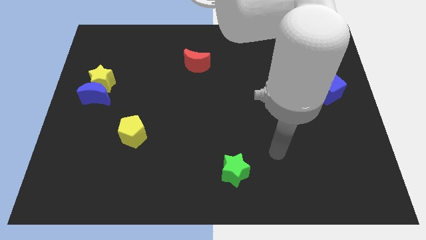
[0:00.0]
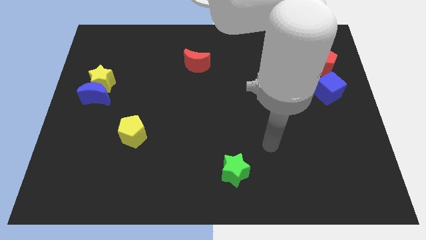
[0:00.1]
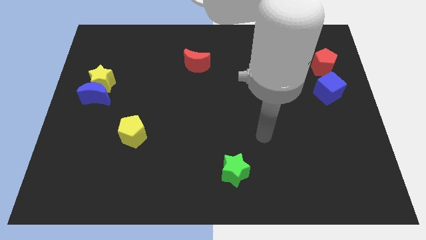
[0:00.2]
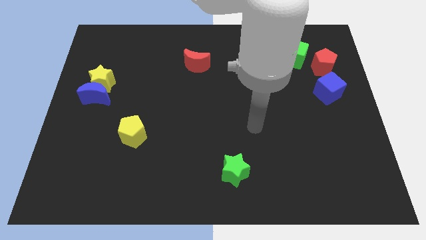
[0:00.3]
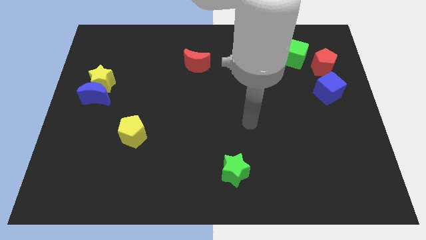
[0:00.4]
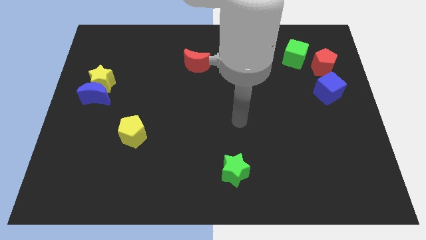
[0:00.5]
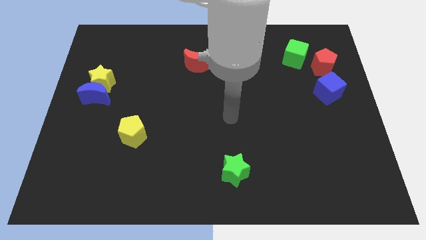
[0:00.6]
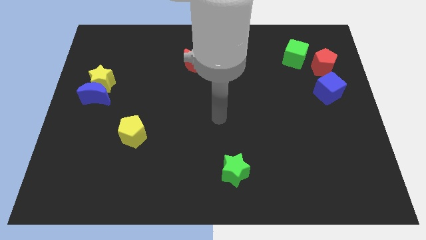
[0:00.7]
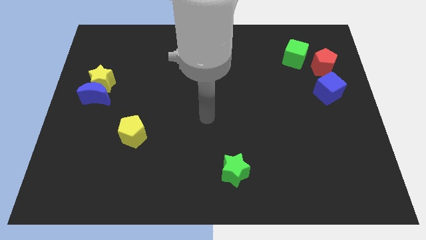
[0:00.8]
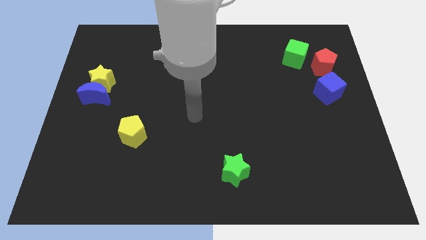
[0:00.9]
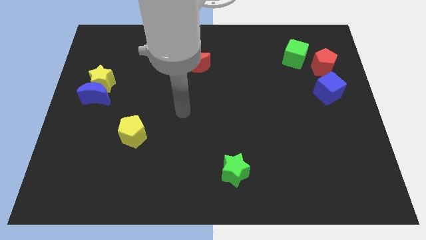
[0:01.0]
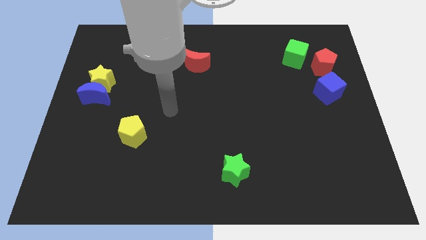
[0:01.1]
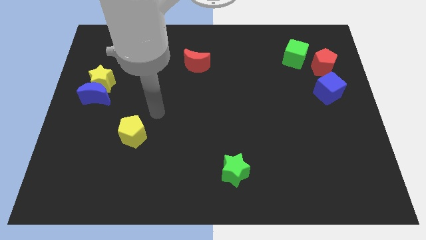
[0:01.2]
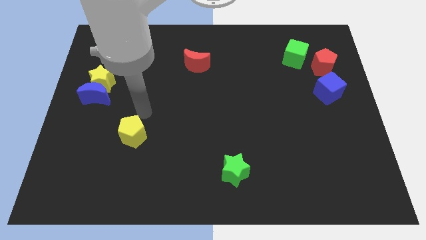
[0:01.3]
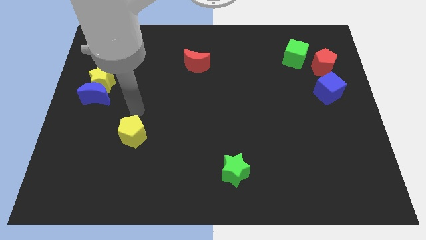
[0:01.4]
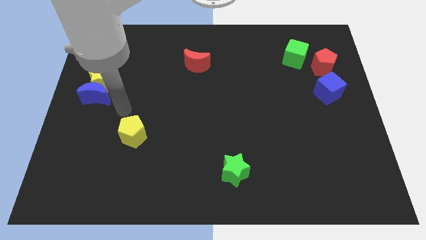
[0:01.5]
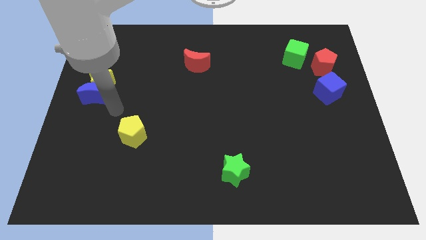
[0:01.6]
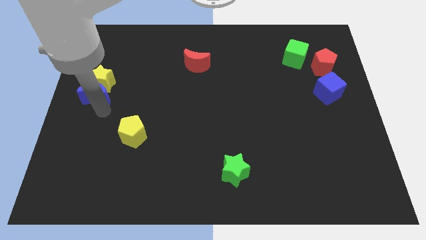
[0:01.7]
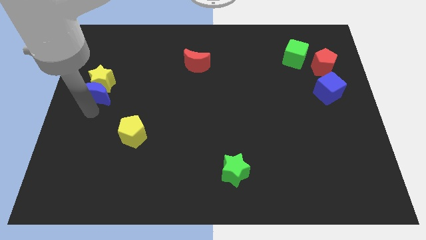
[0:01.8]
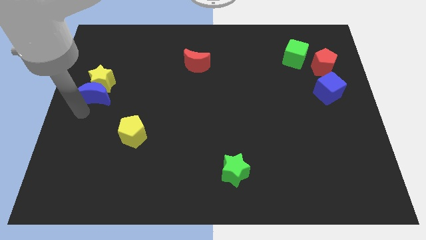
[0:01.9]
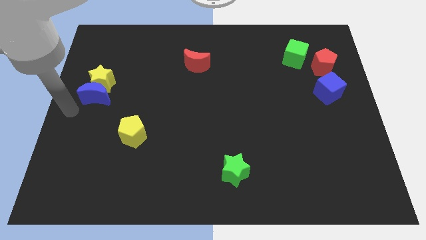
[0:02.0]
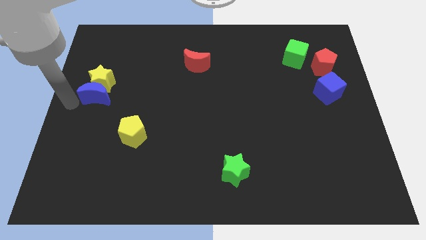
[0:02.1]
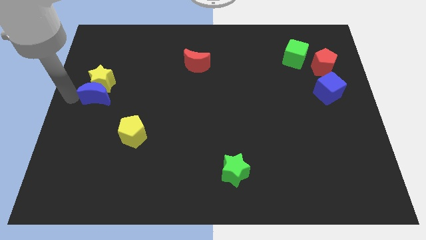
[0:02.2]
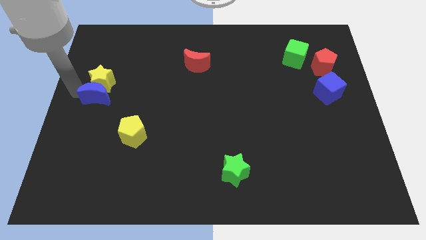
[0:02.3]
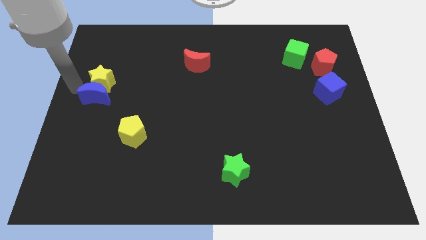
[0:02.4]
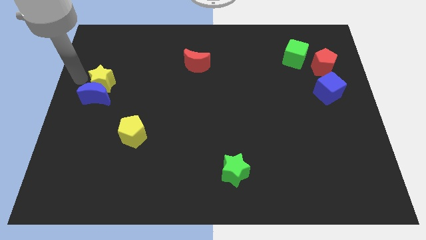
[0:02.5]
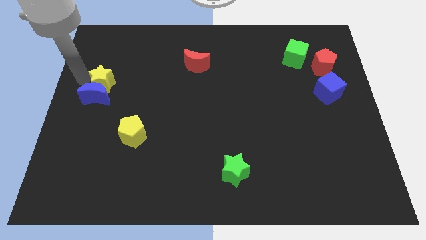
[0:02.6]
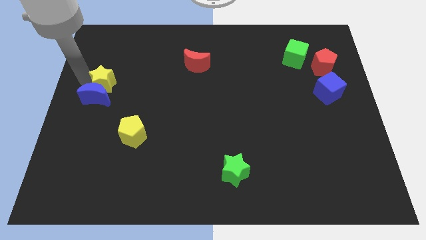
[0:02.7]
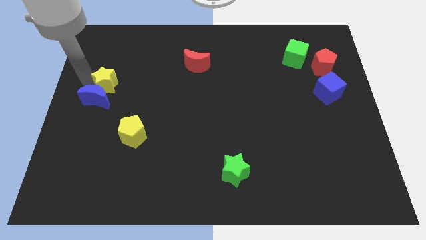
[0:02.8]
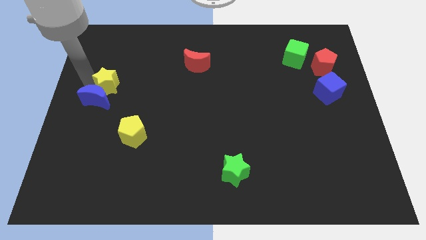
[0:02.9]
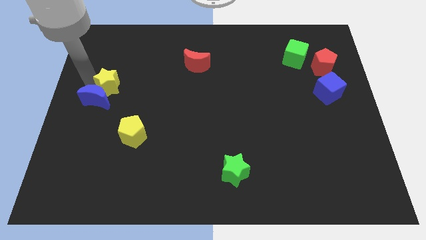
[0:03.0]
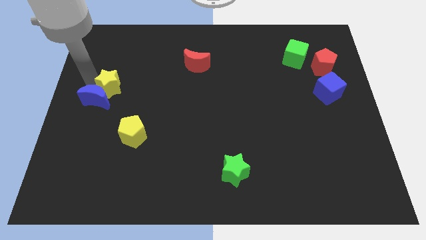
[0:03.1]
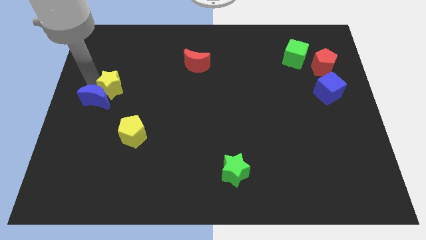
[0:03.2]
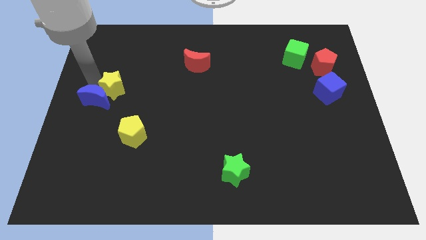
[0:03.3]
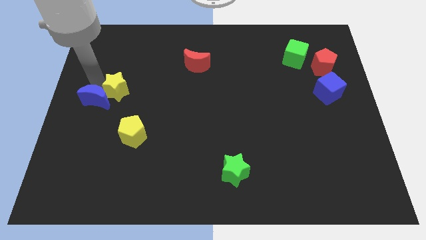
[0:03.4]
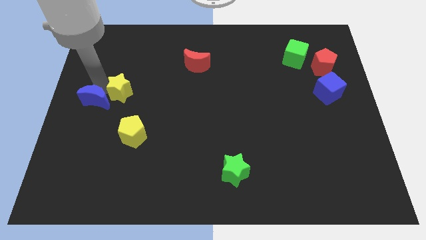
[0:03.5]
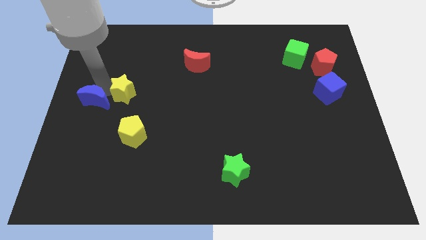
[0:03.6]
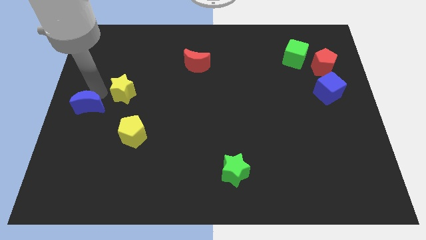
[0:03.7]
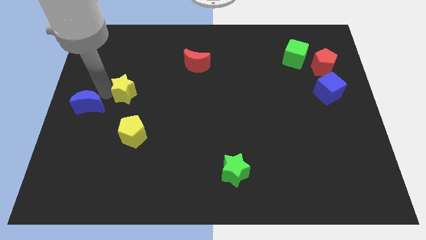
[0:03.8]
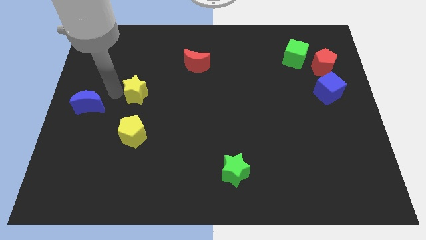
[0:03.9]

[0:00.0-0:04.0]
slightly push the yellow star to the right

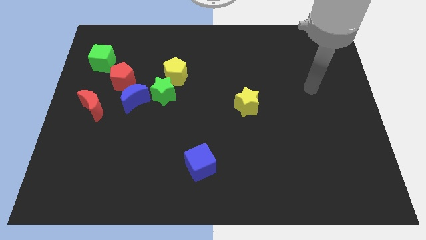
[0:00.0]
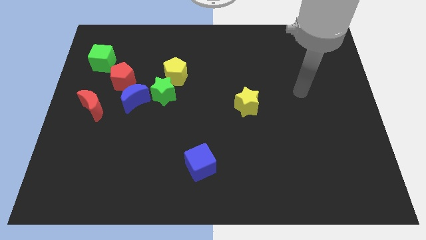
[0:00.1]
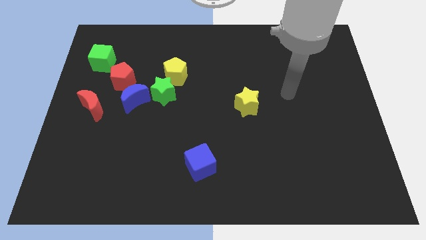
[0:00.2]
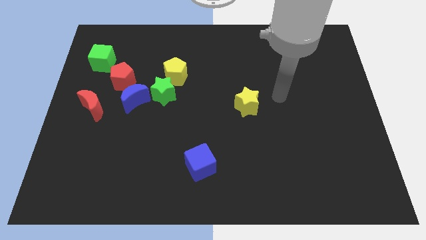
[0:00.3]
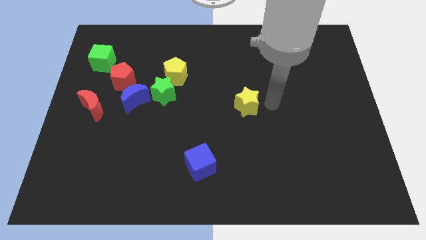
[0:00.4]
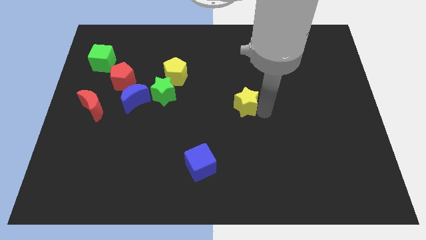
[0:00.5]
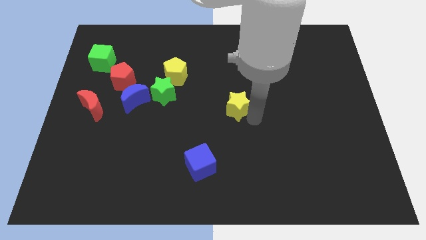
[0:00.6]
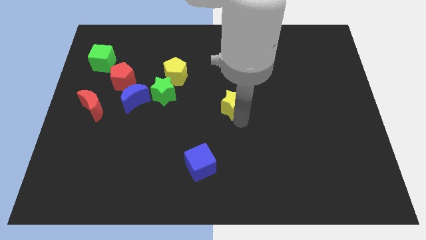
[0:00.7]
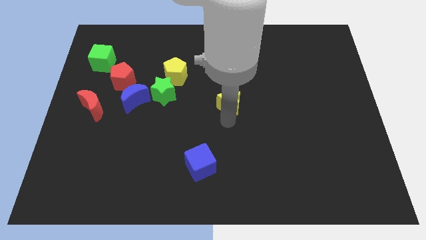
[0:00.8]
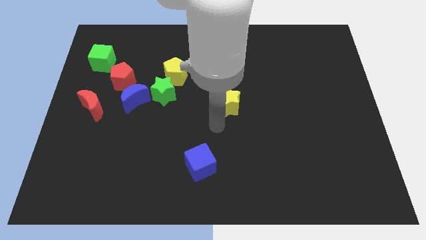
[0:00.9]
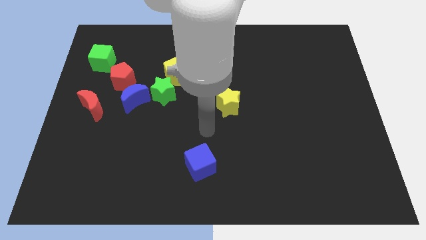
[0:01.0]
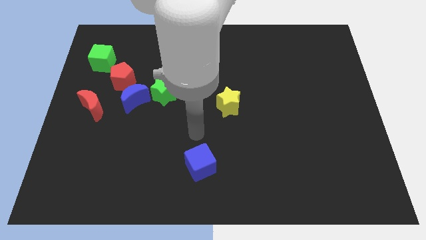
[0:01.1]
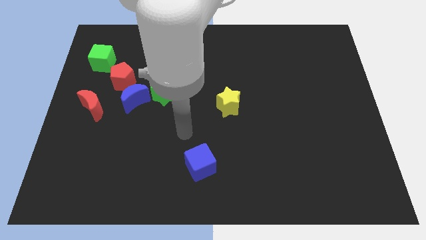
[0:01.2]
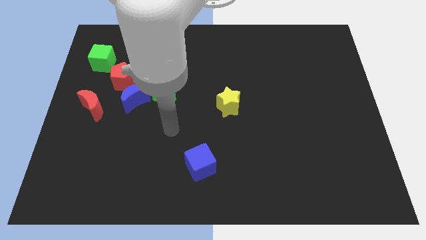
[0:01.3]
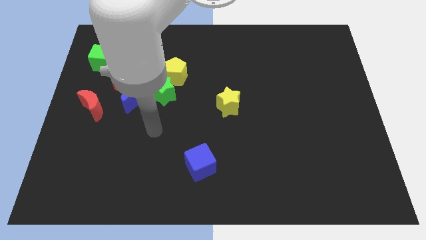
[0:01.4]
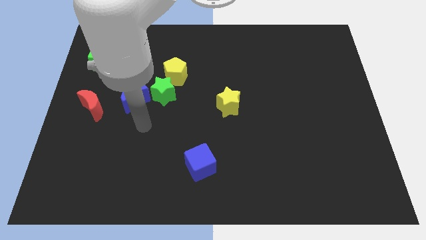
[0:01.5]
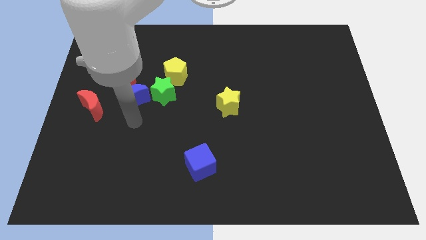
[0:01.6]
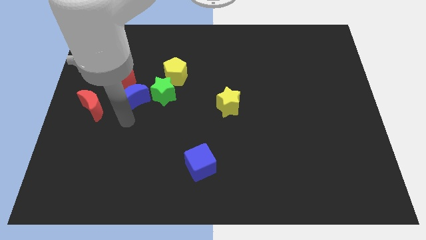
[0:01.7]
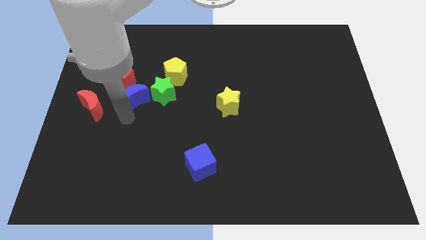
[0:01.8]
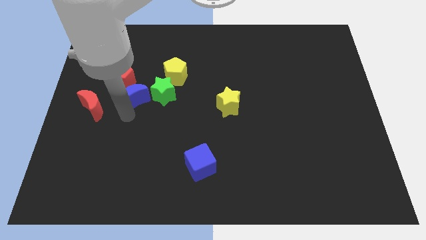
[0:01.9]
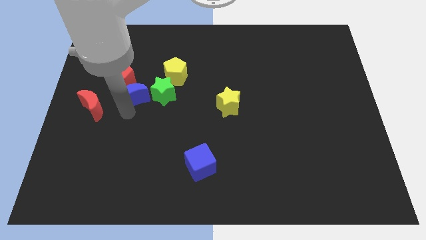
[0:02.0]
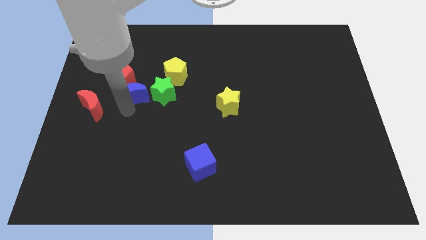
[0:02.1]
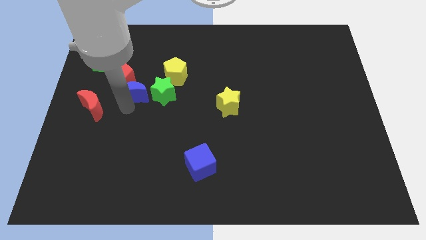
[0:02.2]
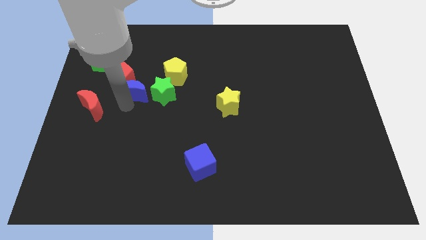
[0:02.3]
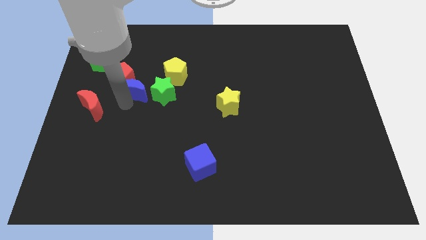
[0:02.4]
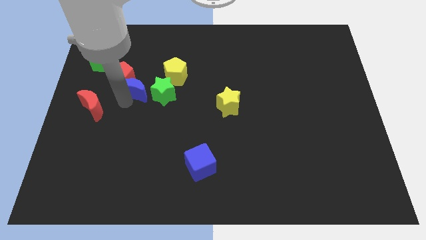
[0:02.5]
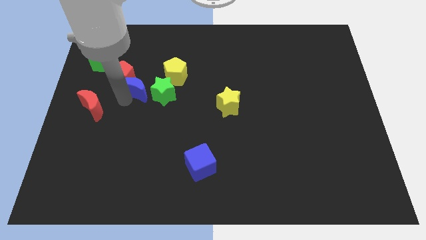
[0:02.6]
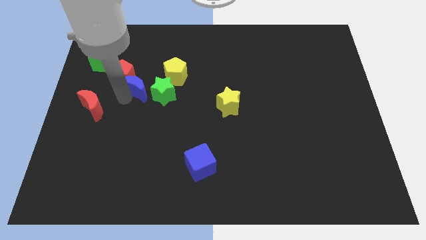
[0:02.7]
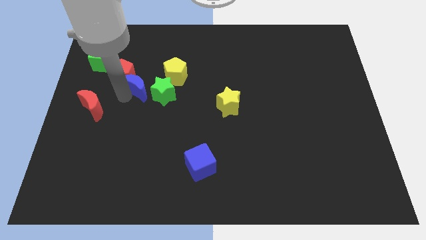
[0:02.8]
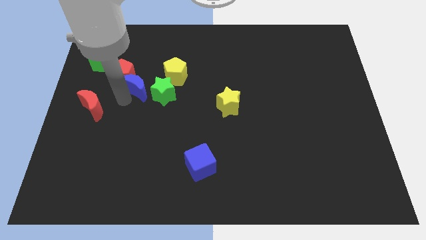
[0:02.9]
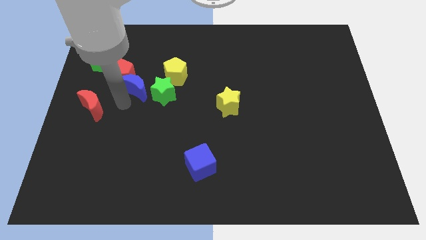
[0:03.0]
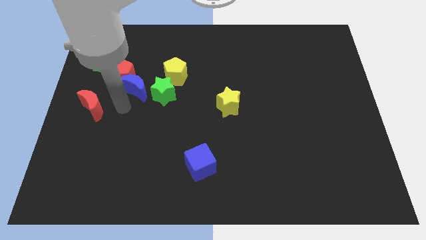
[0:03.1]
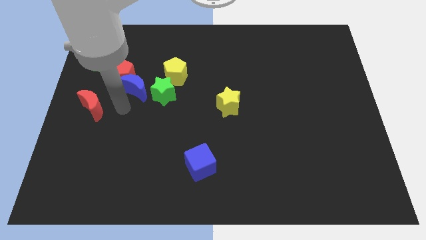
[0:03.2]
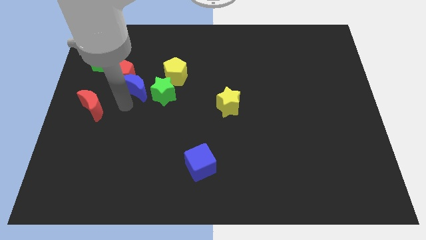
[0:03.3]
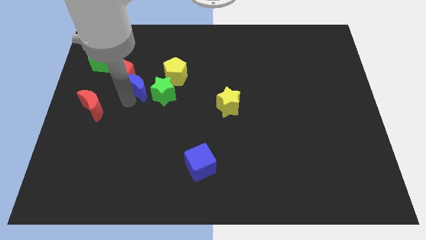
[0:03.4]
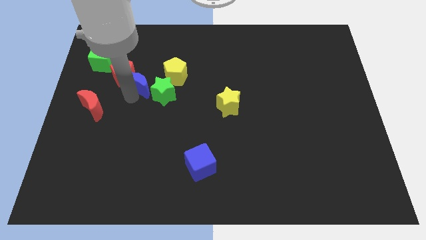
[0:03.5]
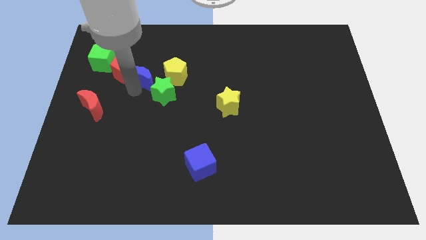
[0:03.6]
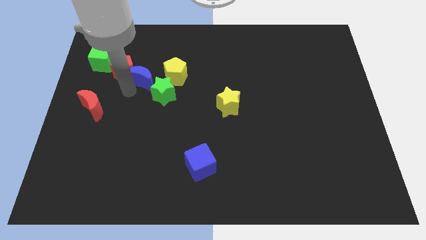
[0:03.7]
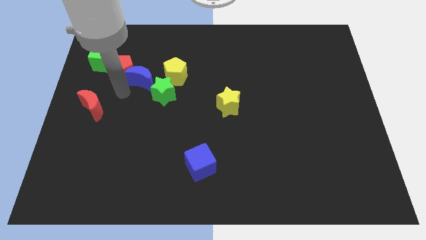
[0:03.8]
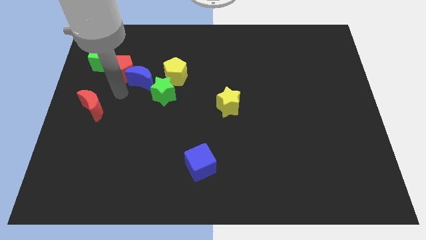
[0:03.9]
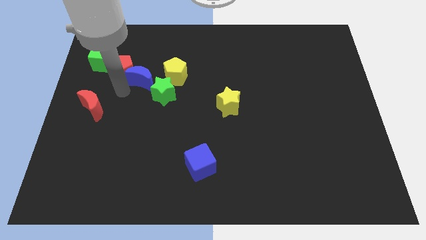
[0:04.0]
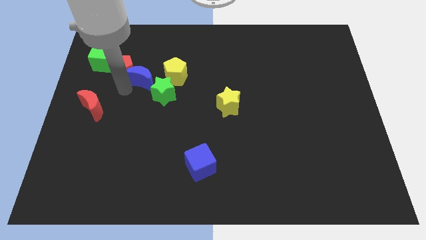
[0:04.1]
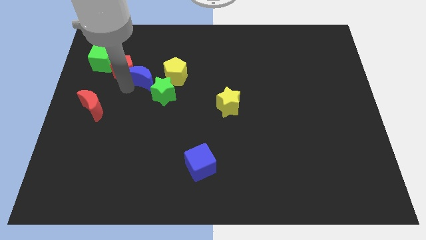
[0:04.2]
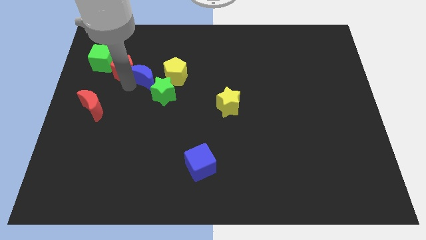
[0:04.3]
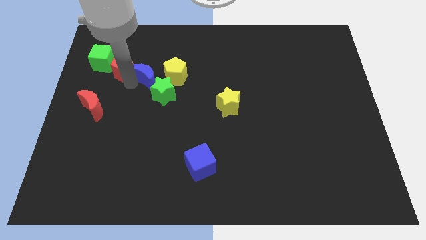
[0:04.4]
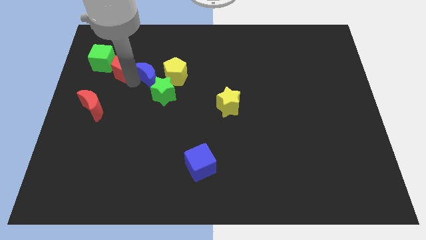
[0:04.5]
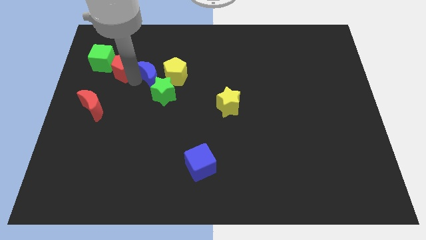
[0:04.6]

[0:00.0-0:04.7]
slightly move the blue moon upwards and then to the right
